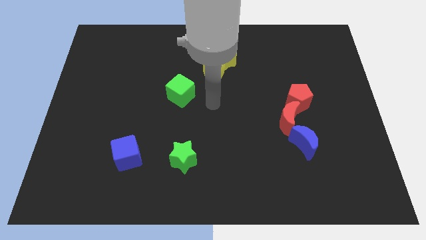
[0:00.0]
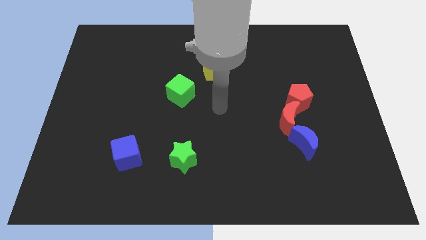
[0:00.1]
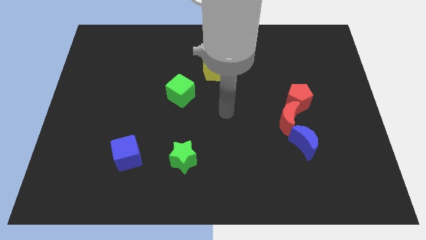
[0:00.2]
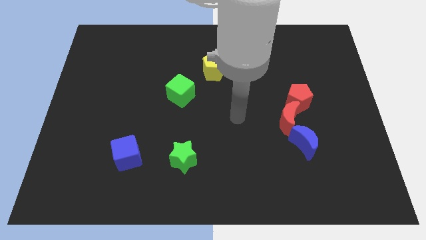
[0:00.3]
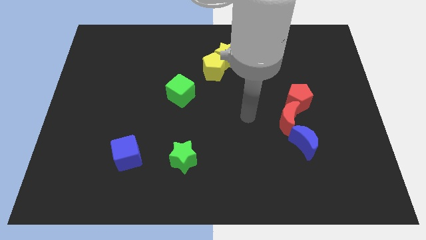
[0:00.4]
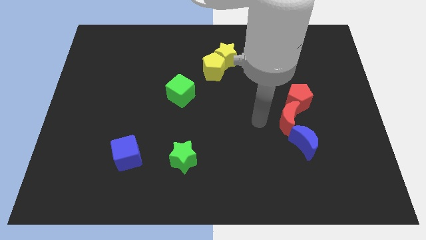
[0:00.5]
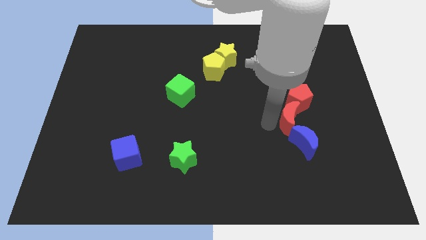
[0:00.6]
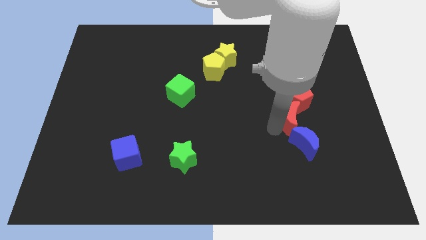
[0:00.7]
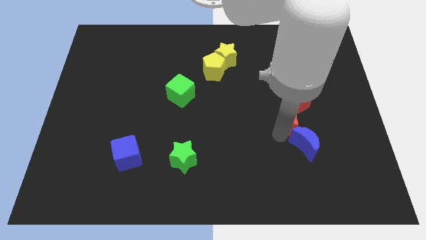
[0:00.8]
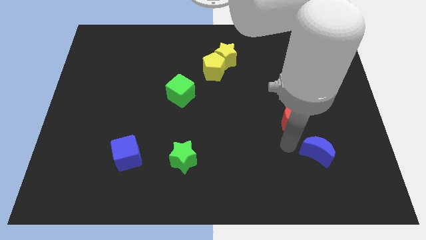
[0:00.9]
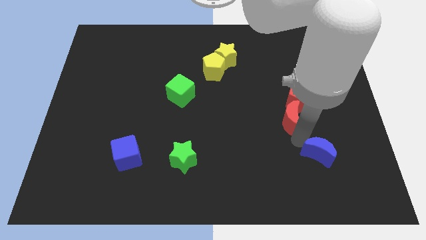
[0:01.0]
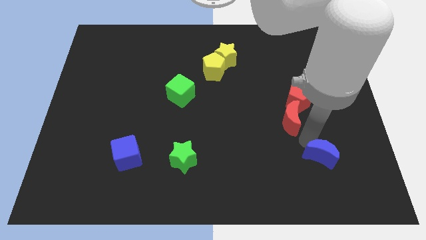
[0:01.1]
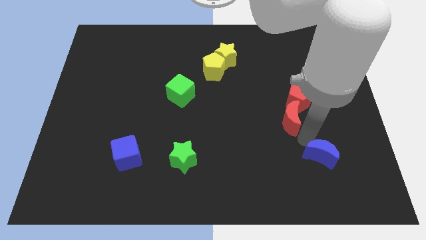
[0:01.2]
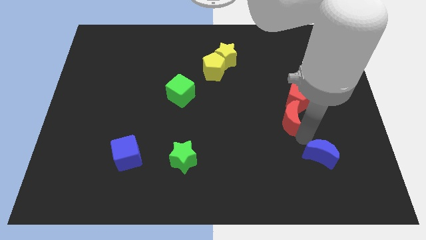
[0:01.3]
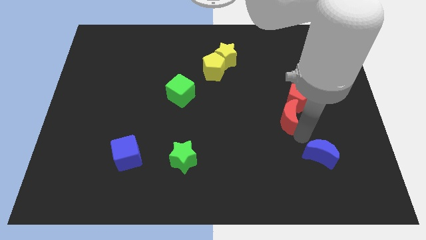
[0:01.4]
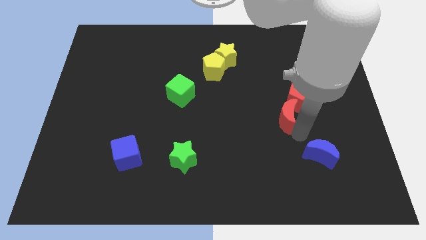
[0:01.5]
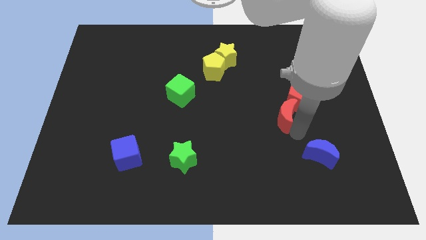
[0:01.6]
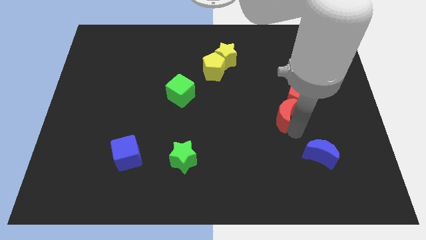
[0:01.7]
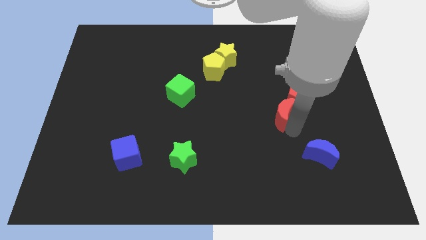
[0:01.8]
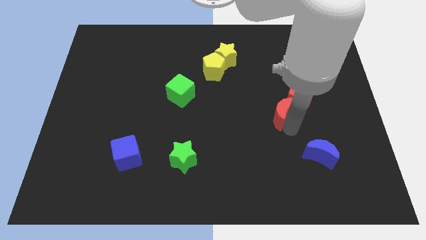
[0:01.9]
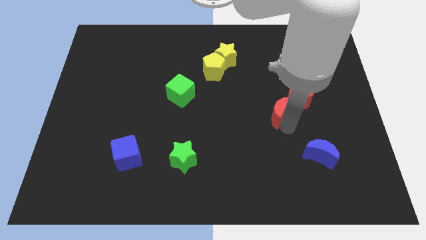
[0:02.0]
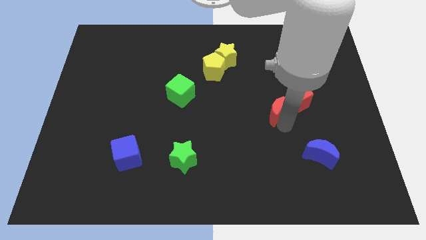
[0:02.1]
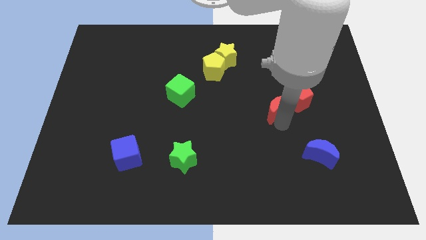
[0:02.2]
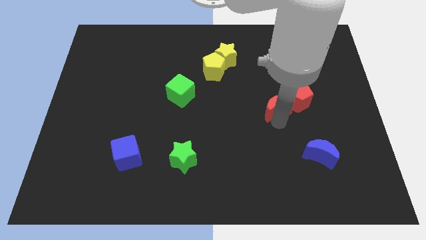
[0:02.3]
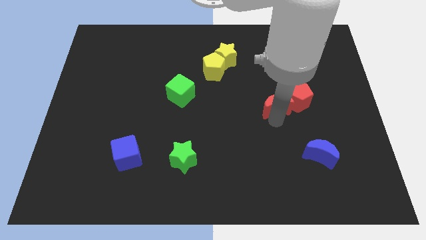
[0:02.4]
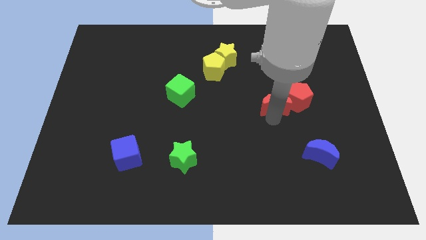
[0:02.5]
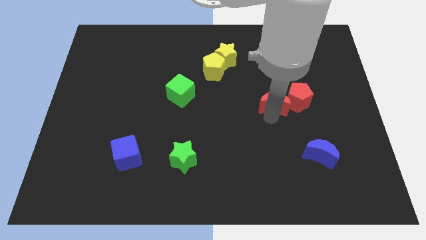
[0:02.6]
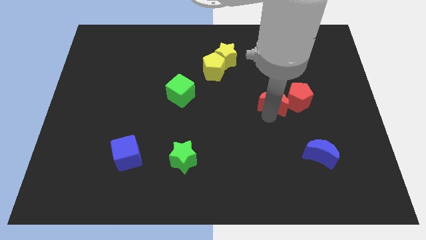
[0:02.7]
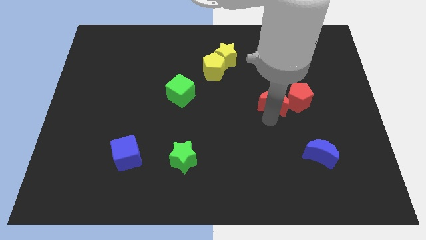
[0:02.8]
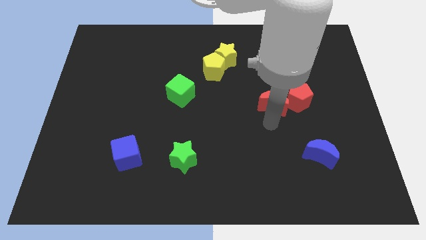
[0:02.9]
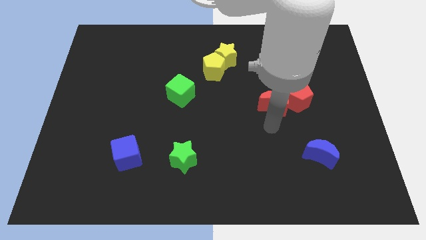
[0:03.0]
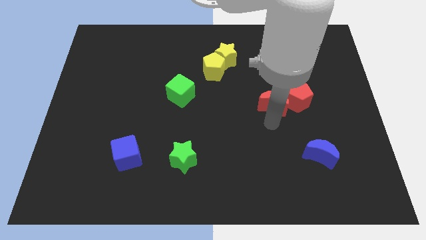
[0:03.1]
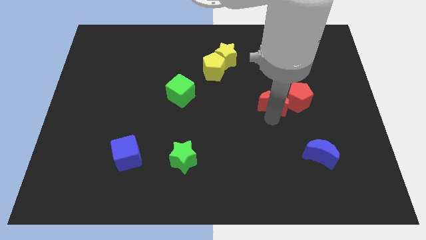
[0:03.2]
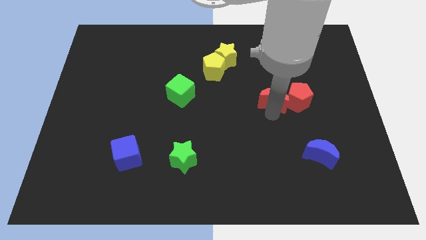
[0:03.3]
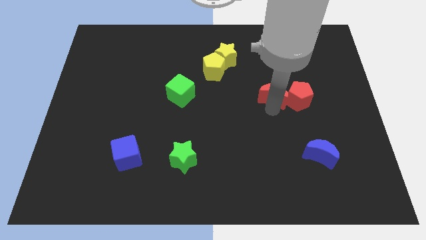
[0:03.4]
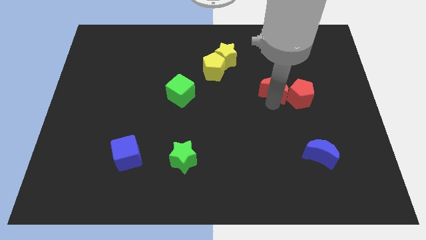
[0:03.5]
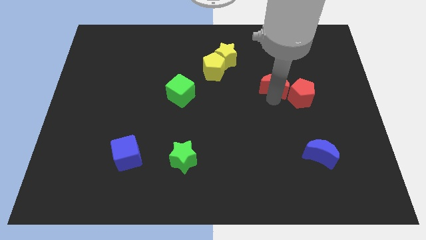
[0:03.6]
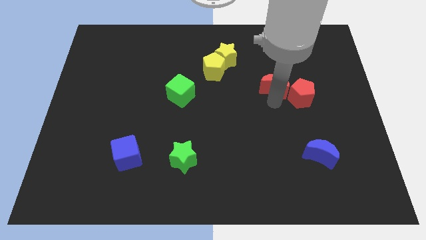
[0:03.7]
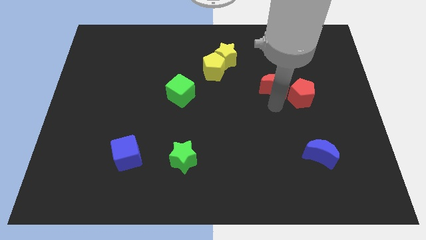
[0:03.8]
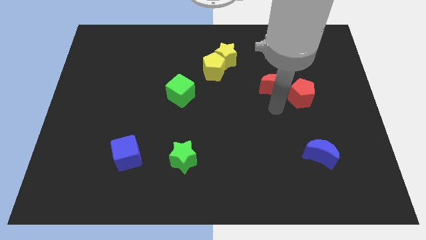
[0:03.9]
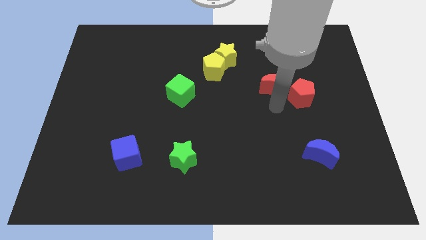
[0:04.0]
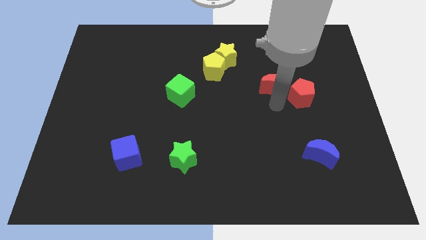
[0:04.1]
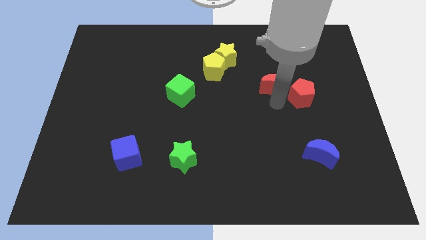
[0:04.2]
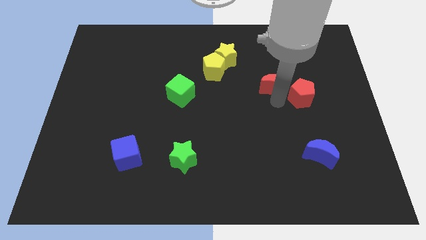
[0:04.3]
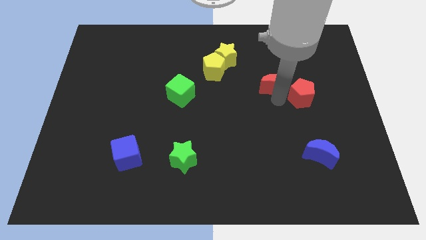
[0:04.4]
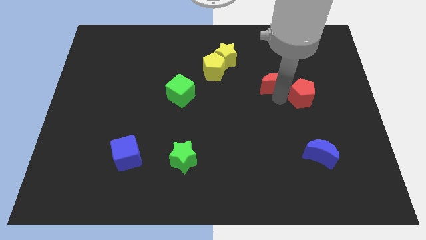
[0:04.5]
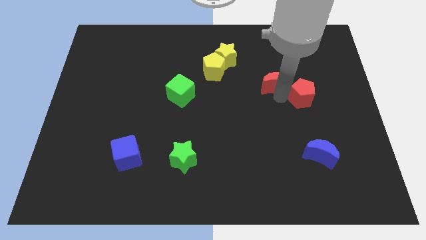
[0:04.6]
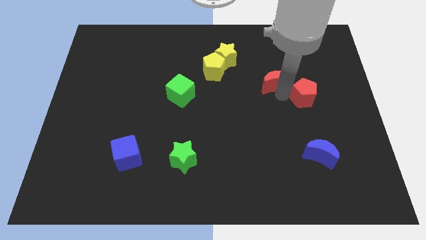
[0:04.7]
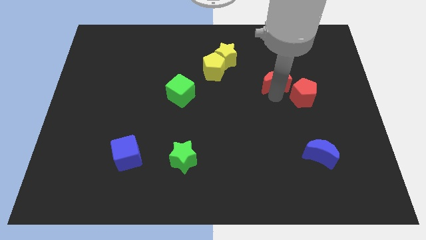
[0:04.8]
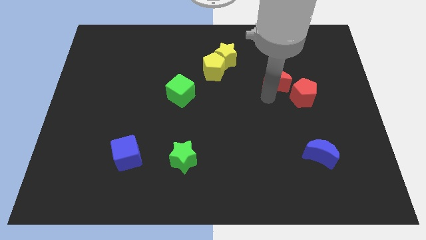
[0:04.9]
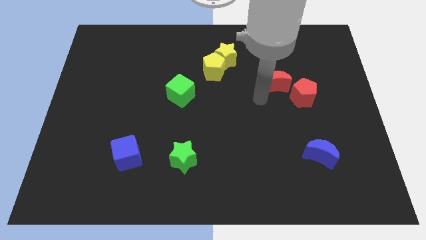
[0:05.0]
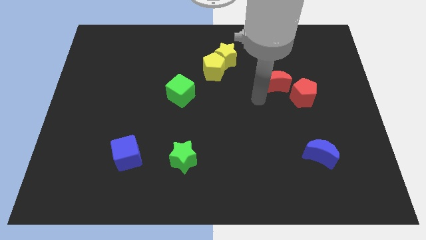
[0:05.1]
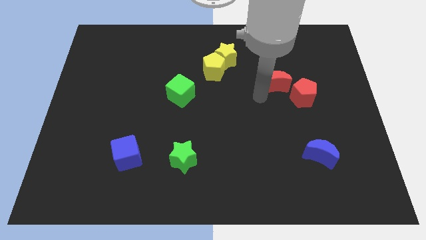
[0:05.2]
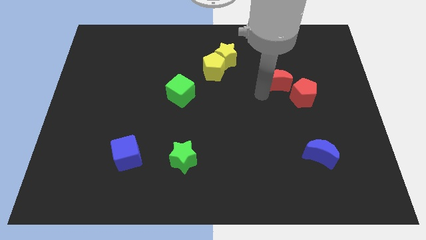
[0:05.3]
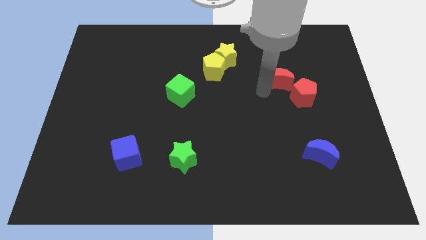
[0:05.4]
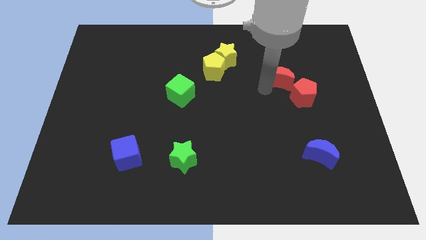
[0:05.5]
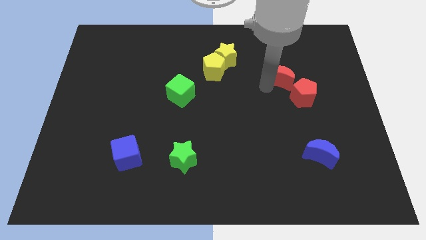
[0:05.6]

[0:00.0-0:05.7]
push the red moon to the top side of the red pentagon
